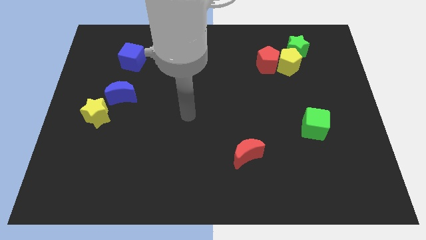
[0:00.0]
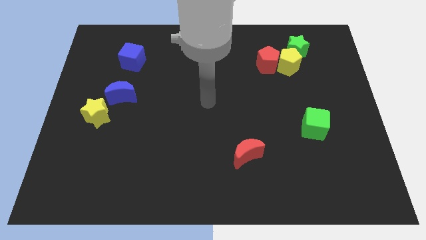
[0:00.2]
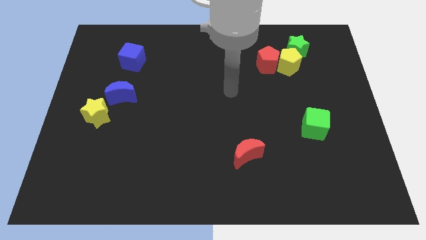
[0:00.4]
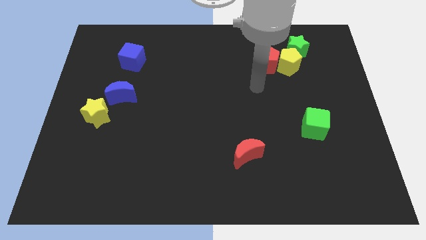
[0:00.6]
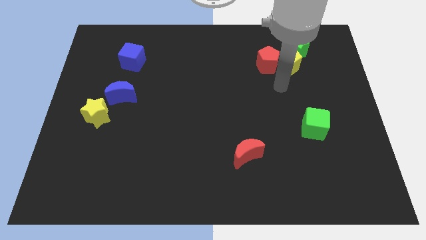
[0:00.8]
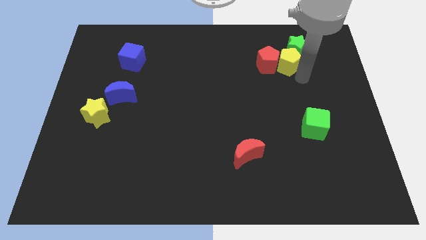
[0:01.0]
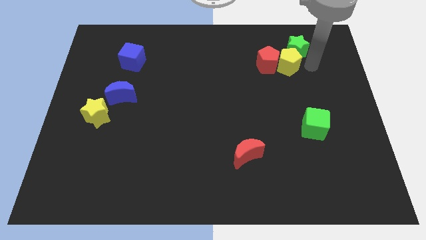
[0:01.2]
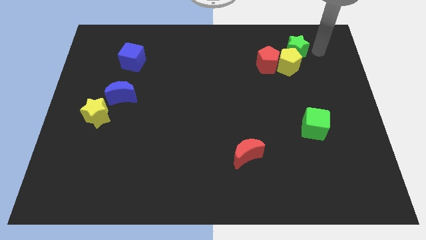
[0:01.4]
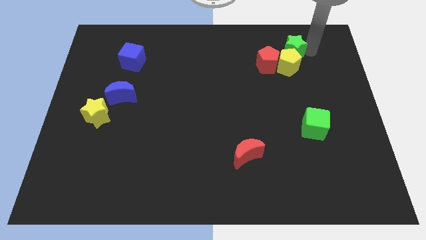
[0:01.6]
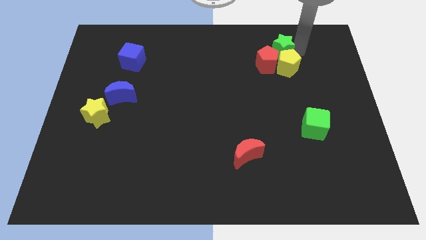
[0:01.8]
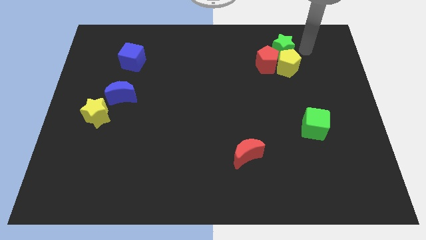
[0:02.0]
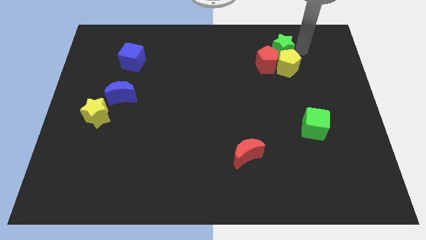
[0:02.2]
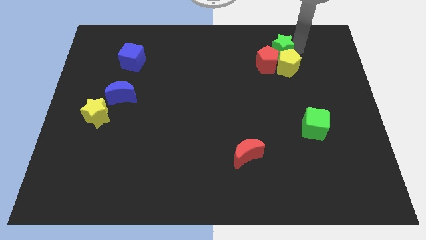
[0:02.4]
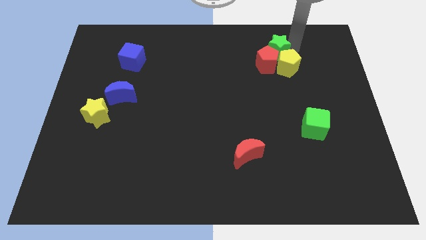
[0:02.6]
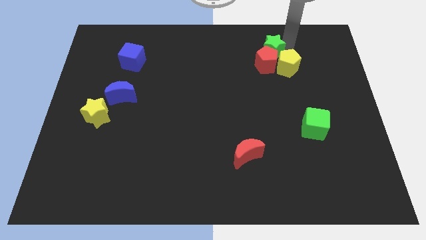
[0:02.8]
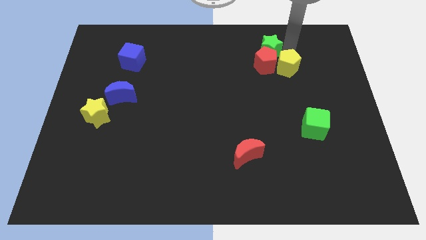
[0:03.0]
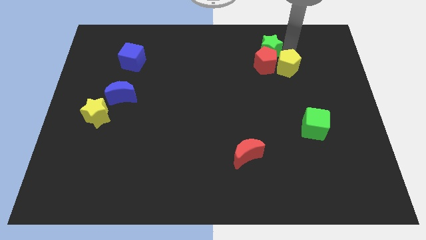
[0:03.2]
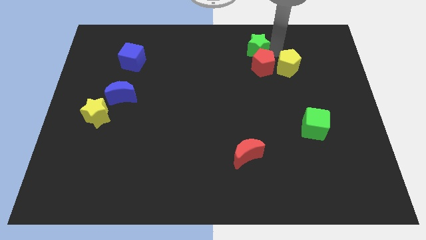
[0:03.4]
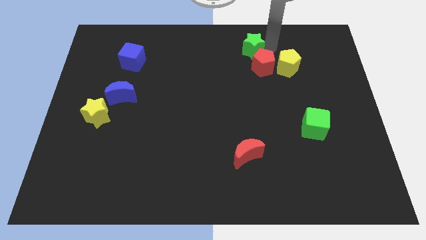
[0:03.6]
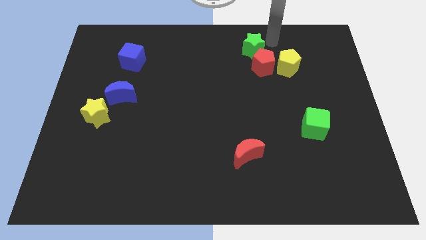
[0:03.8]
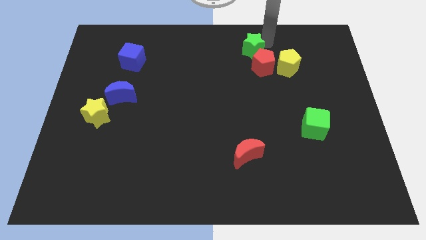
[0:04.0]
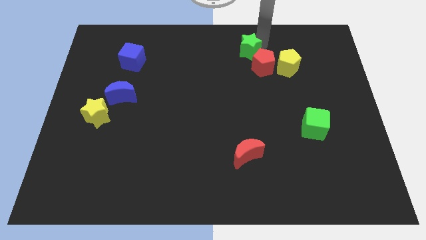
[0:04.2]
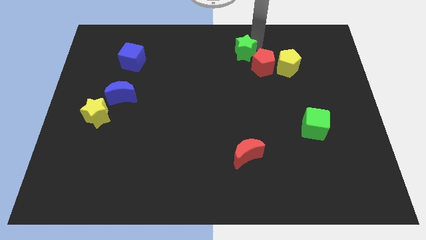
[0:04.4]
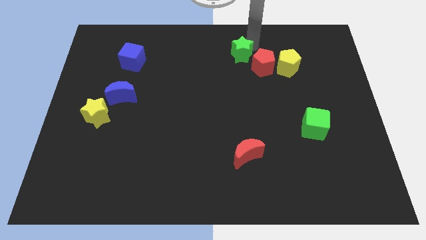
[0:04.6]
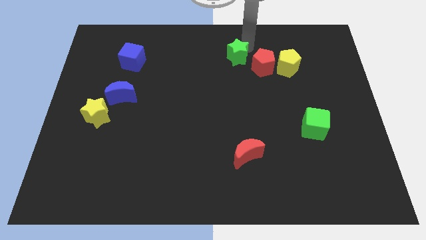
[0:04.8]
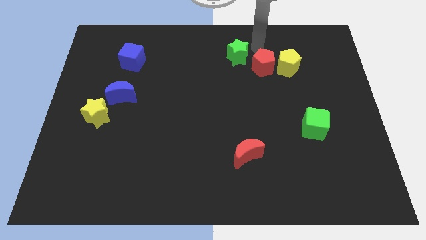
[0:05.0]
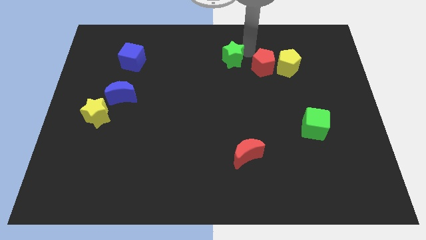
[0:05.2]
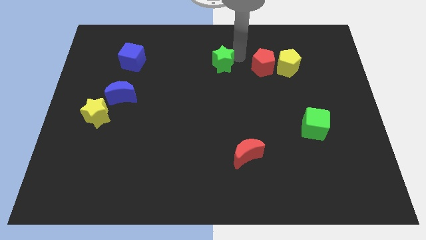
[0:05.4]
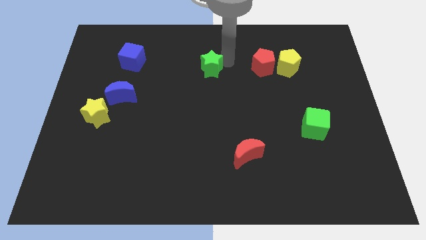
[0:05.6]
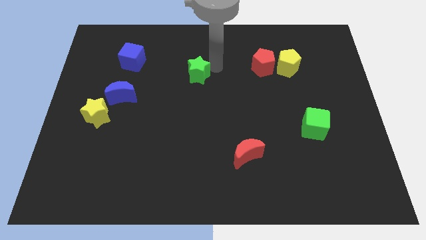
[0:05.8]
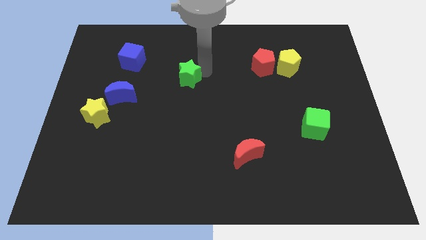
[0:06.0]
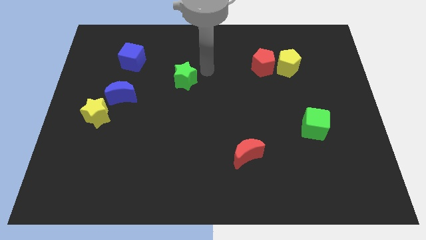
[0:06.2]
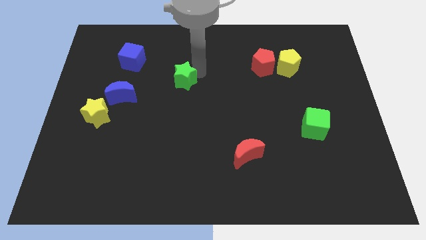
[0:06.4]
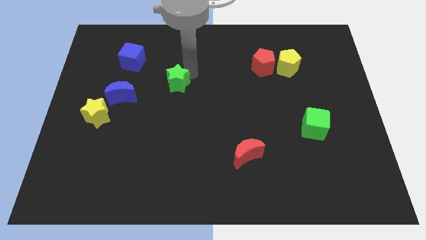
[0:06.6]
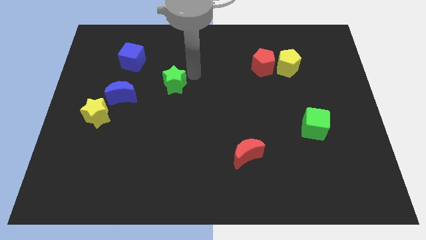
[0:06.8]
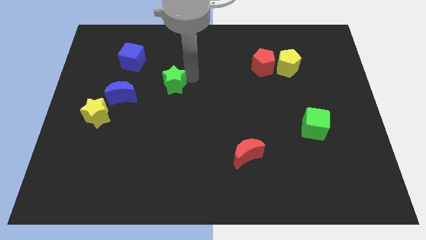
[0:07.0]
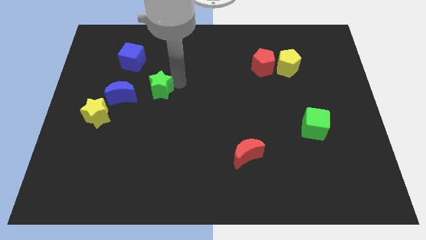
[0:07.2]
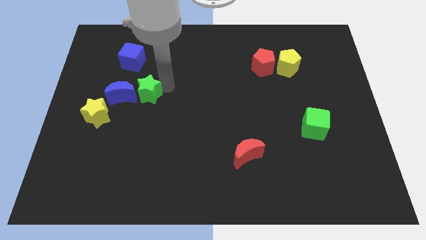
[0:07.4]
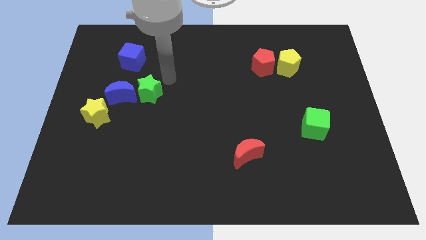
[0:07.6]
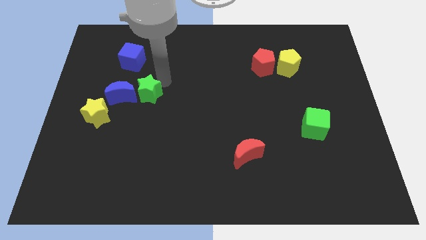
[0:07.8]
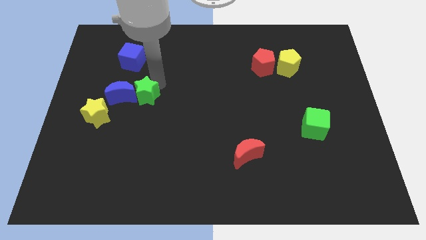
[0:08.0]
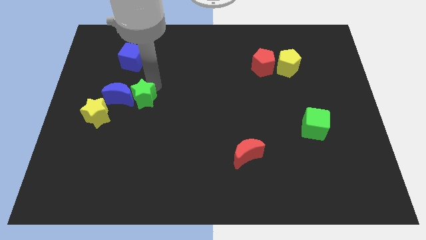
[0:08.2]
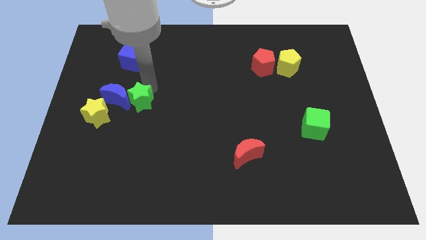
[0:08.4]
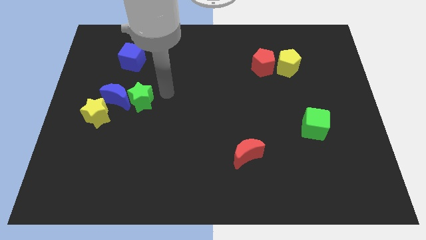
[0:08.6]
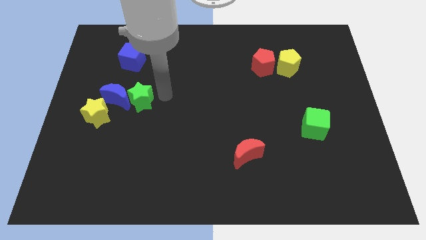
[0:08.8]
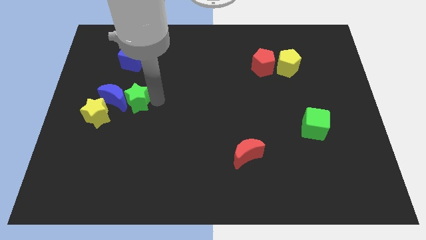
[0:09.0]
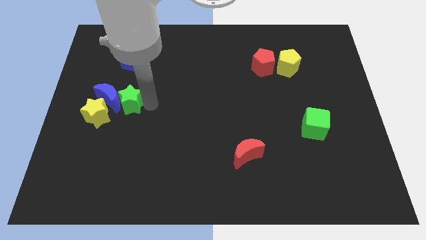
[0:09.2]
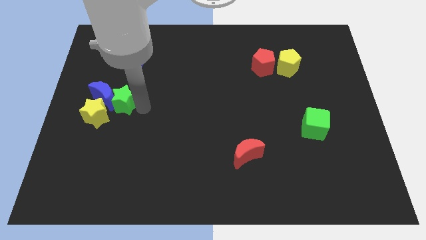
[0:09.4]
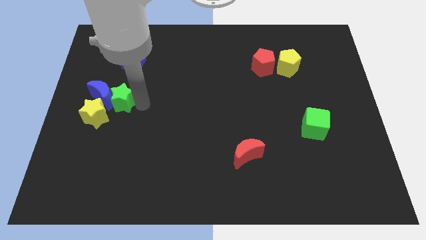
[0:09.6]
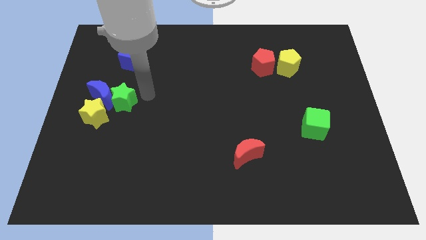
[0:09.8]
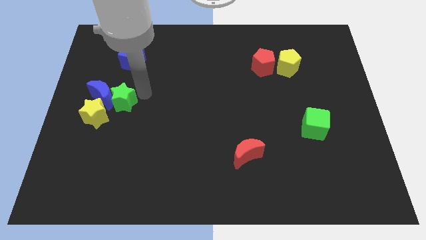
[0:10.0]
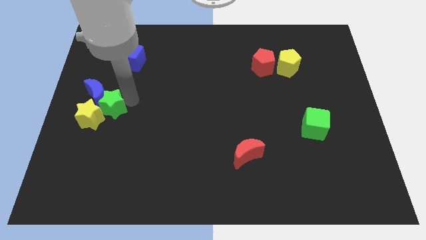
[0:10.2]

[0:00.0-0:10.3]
push the green star next to the yellow star

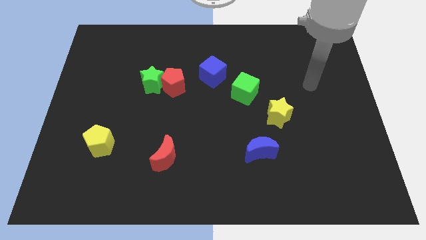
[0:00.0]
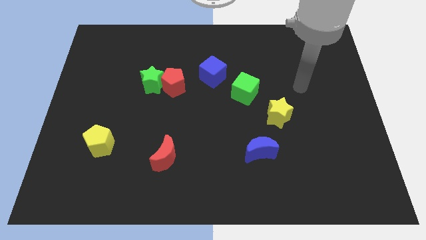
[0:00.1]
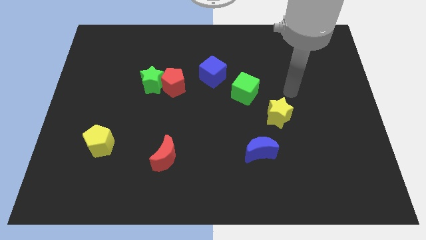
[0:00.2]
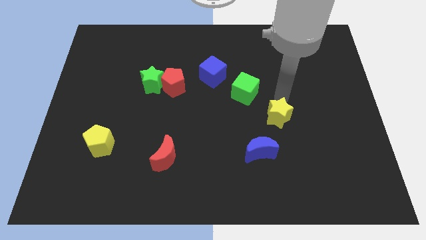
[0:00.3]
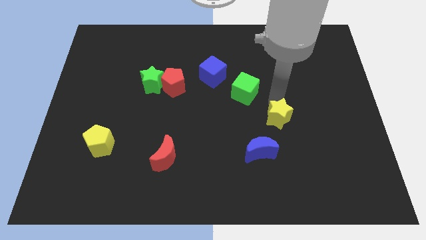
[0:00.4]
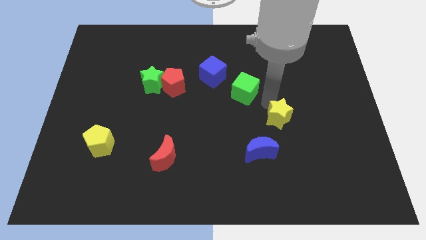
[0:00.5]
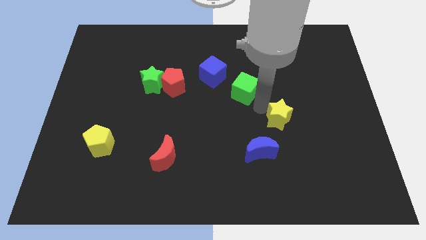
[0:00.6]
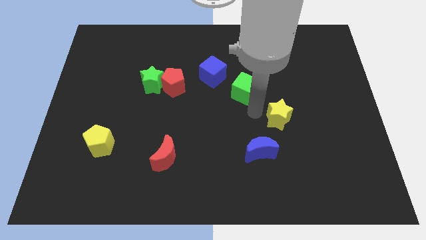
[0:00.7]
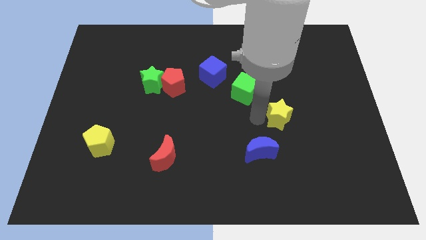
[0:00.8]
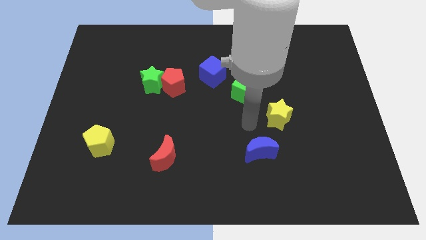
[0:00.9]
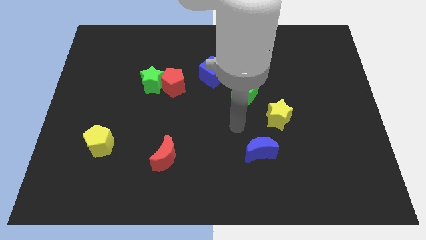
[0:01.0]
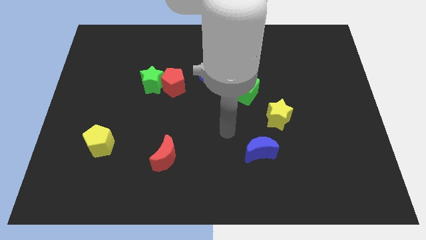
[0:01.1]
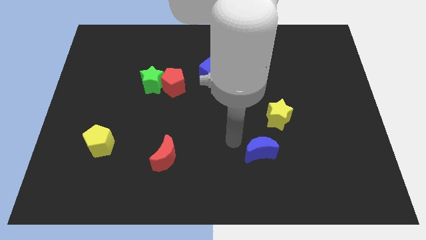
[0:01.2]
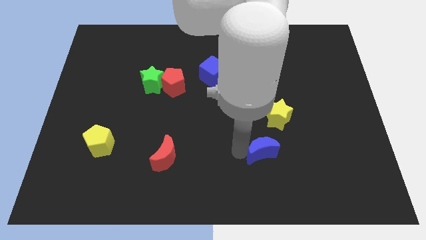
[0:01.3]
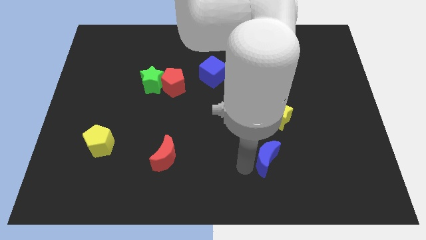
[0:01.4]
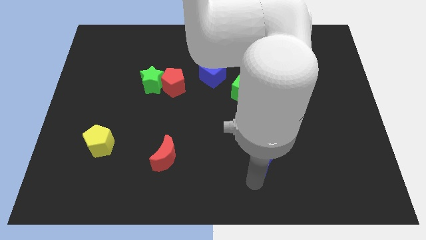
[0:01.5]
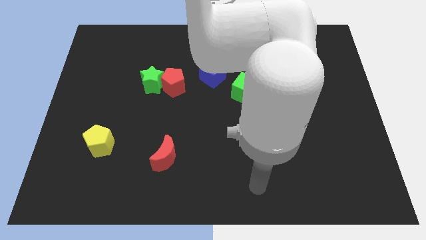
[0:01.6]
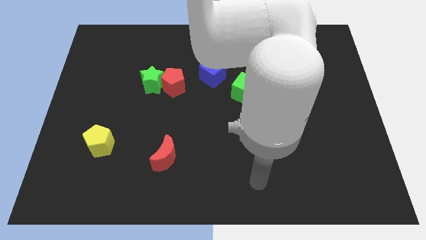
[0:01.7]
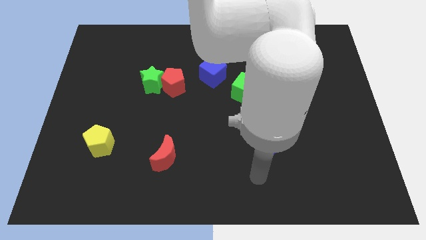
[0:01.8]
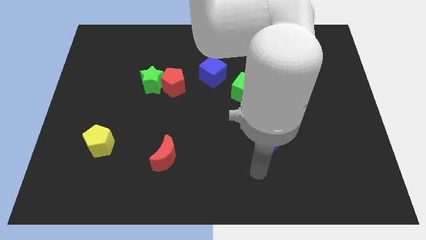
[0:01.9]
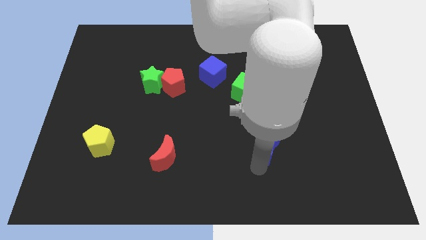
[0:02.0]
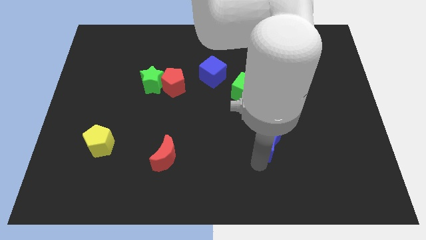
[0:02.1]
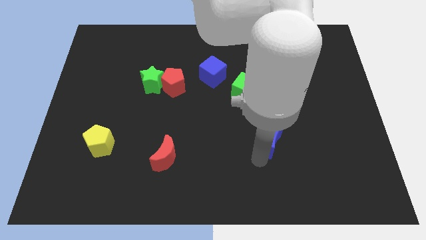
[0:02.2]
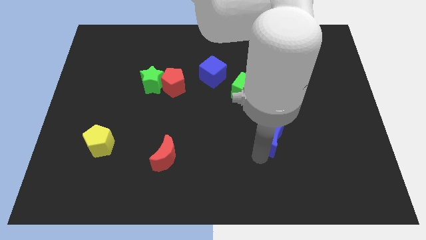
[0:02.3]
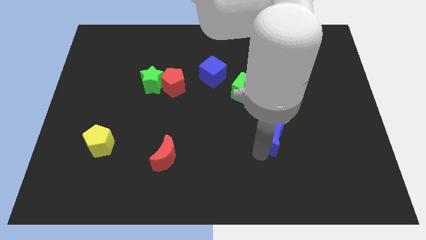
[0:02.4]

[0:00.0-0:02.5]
slide the blue moon close to the yellow star

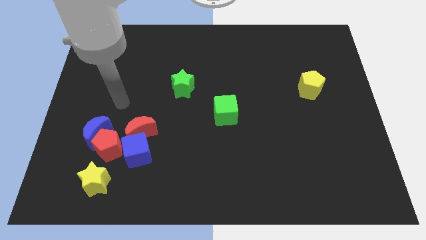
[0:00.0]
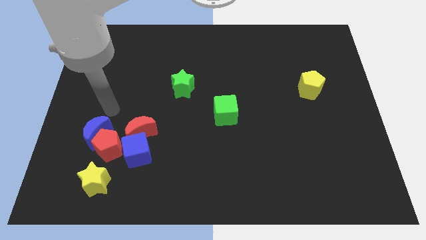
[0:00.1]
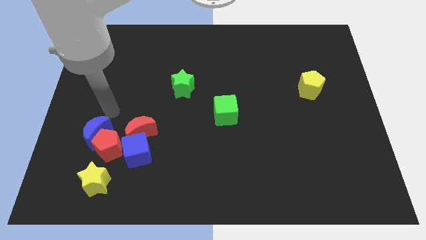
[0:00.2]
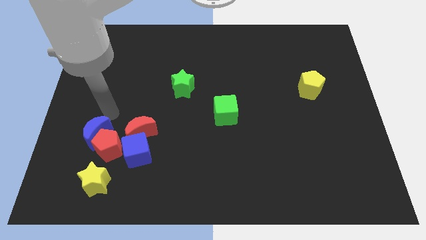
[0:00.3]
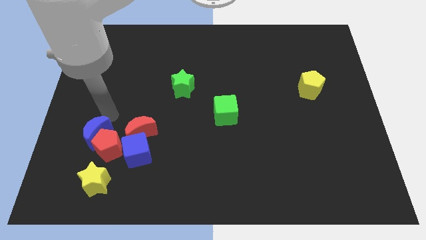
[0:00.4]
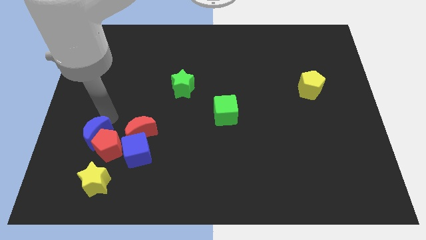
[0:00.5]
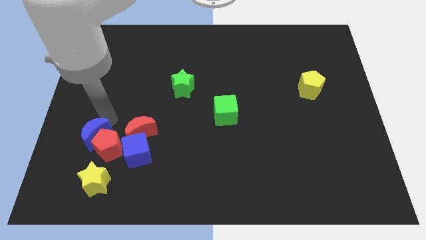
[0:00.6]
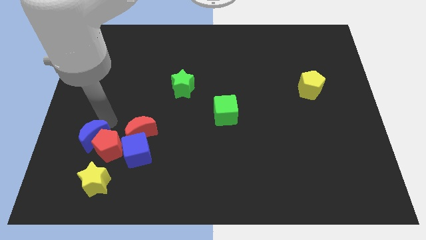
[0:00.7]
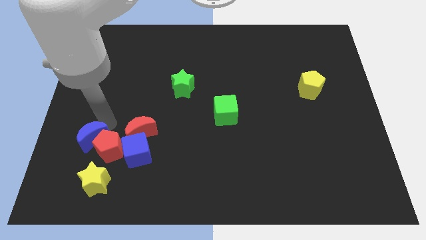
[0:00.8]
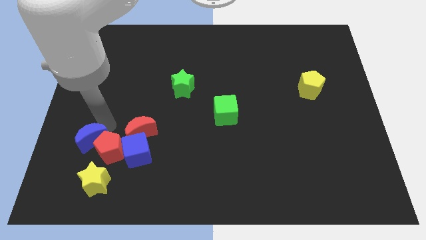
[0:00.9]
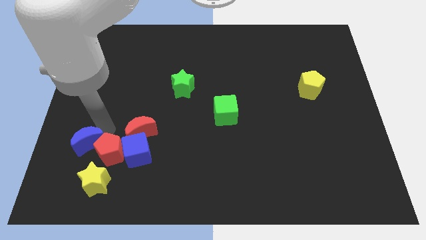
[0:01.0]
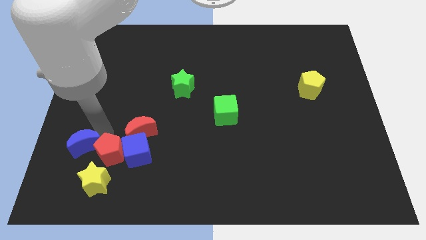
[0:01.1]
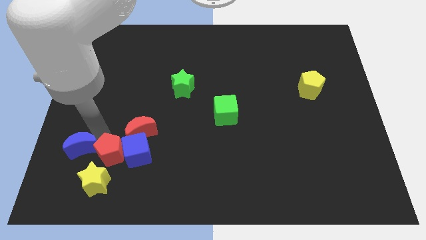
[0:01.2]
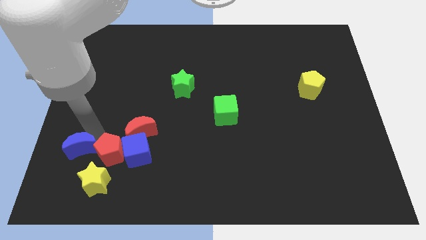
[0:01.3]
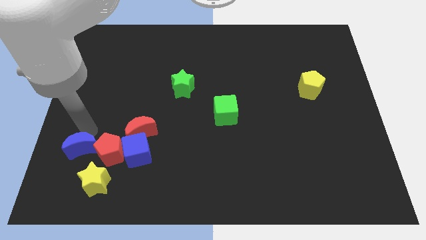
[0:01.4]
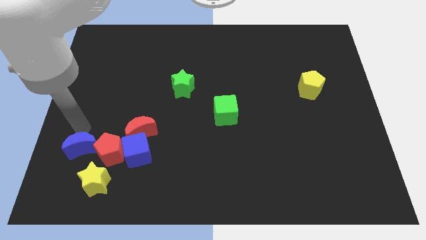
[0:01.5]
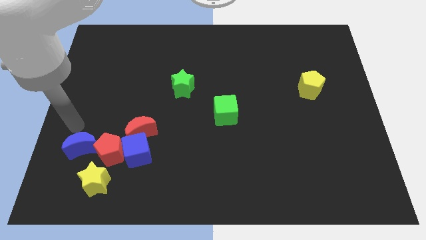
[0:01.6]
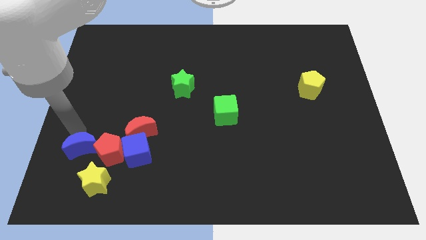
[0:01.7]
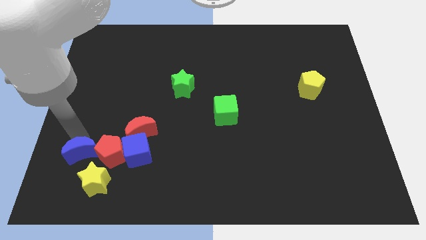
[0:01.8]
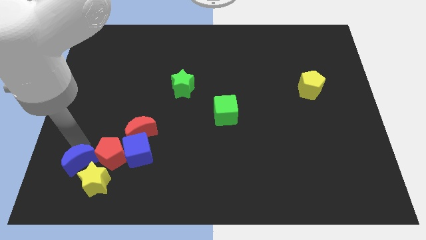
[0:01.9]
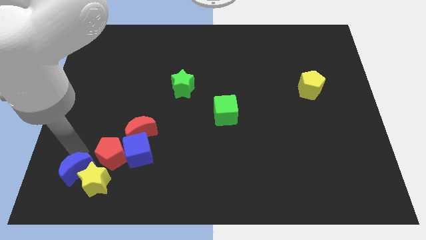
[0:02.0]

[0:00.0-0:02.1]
push the blue moon to the yellow star
